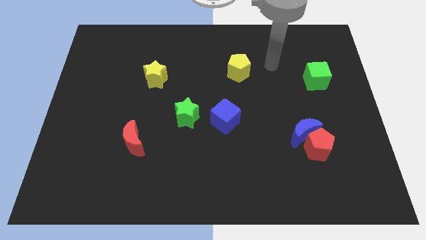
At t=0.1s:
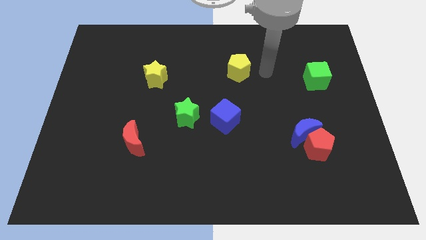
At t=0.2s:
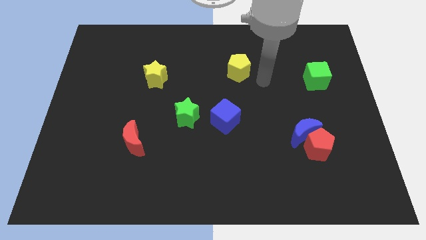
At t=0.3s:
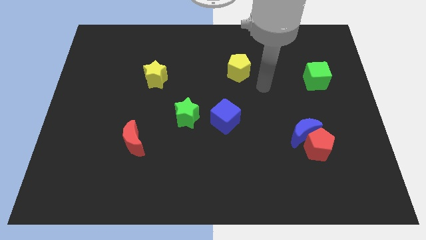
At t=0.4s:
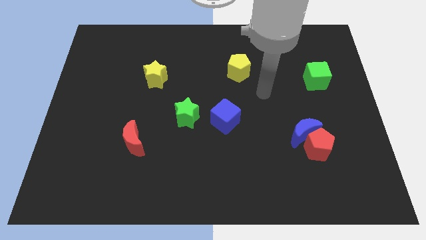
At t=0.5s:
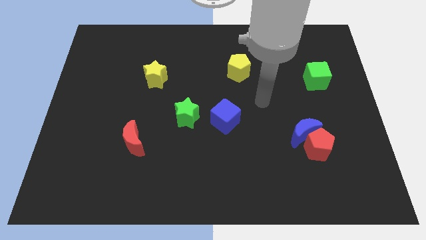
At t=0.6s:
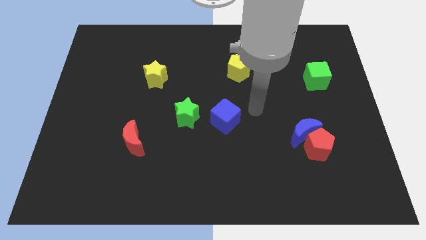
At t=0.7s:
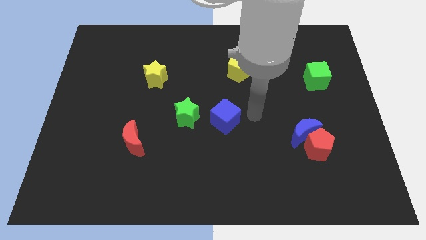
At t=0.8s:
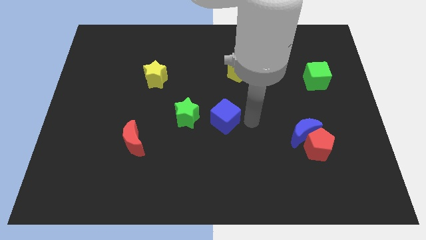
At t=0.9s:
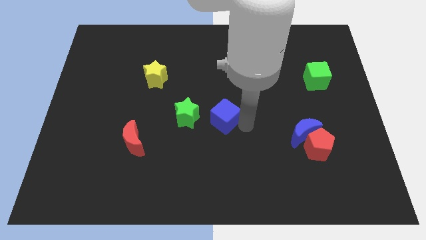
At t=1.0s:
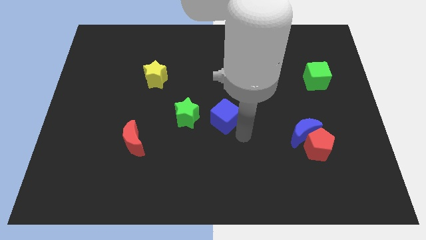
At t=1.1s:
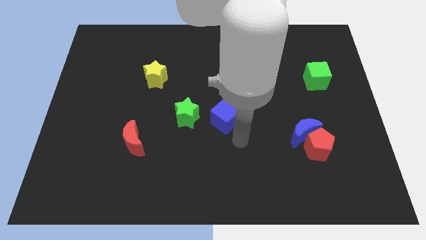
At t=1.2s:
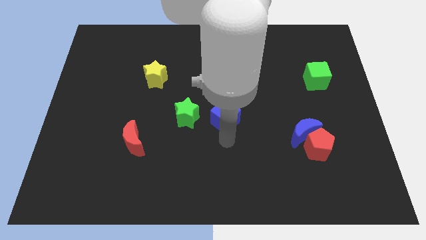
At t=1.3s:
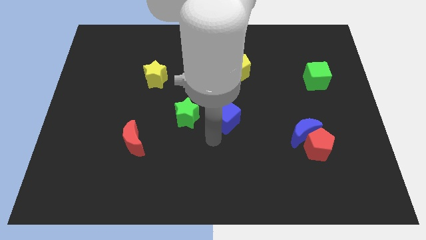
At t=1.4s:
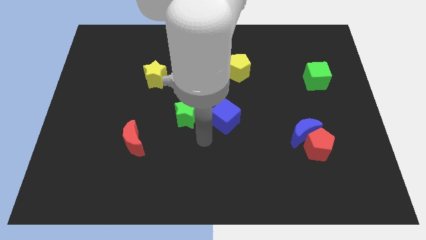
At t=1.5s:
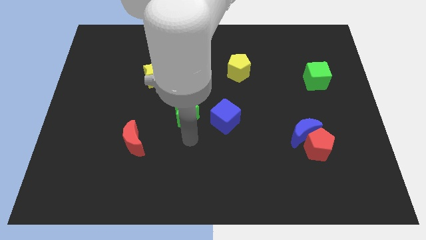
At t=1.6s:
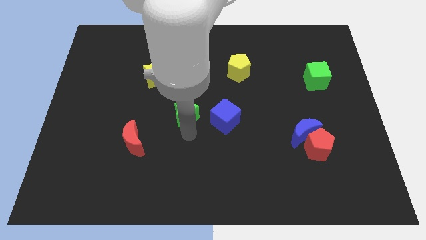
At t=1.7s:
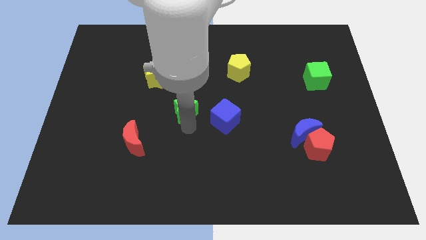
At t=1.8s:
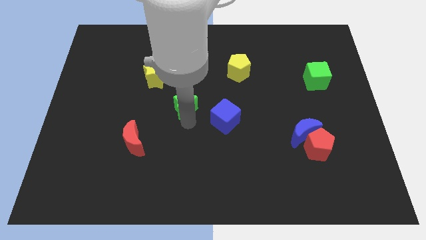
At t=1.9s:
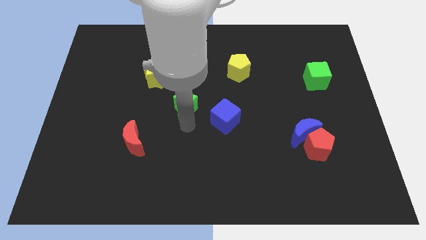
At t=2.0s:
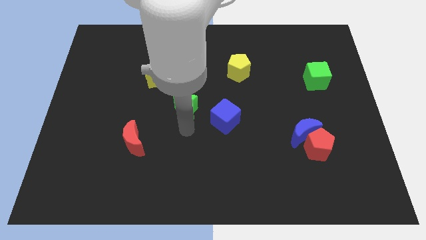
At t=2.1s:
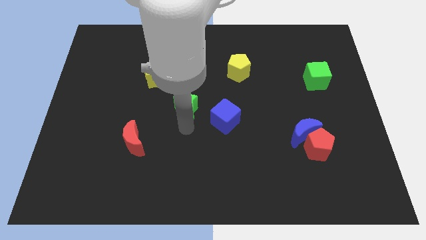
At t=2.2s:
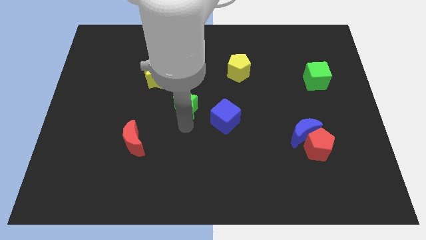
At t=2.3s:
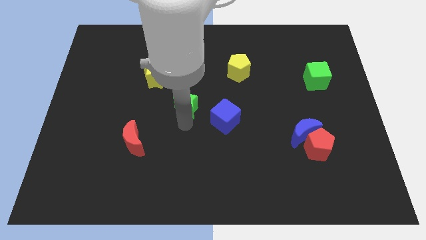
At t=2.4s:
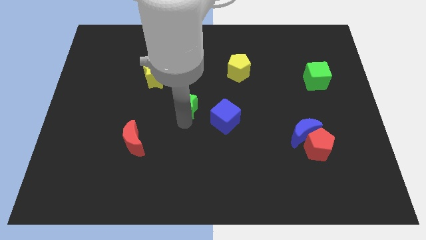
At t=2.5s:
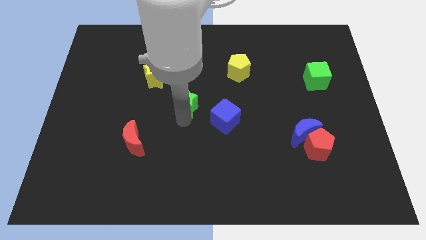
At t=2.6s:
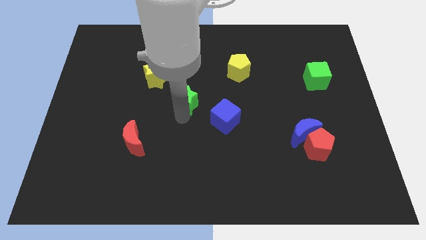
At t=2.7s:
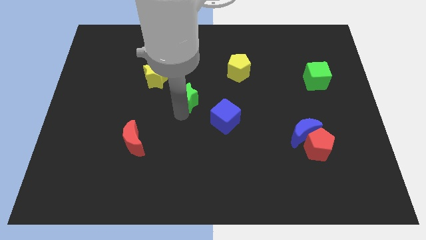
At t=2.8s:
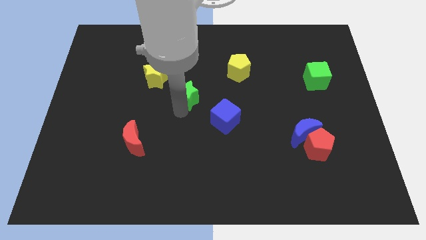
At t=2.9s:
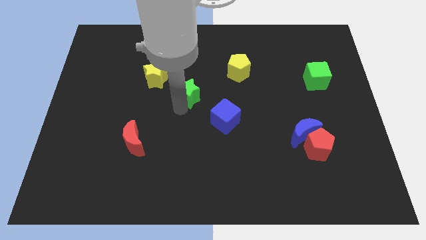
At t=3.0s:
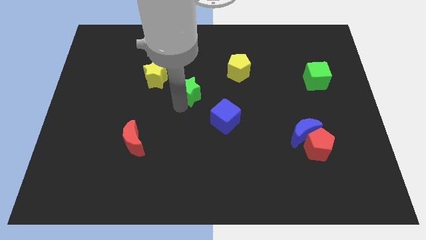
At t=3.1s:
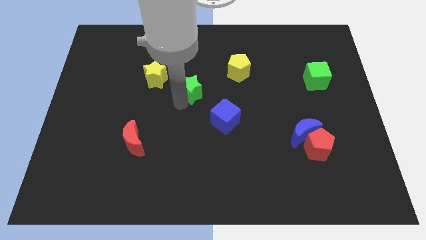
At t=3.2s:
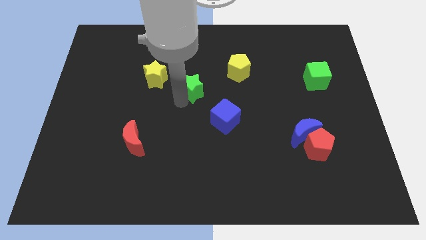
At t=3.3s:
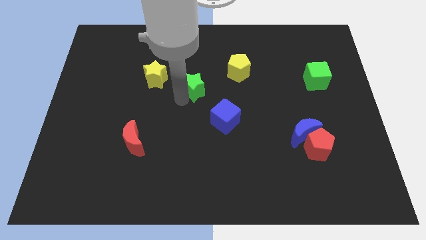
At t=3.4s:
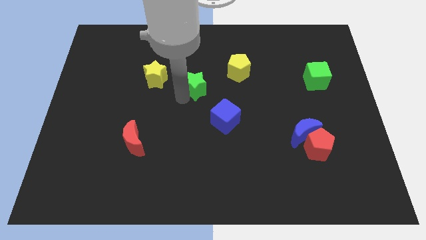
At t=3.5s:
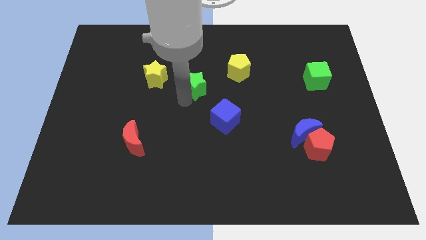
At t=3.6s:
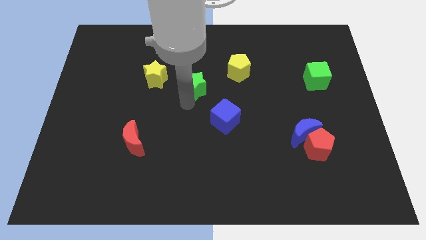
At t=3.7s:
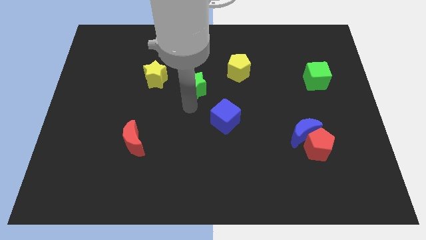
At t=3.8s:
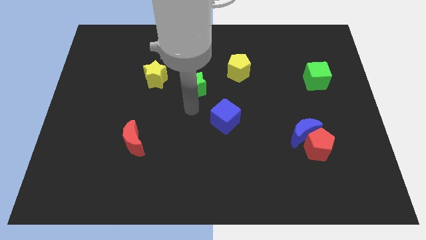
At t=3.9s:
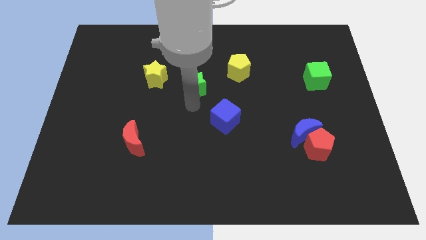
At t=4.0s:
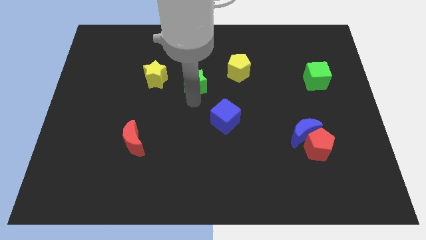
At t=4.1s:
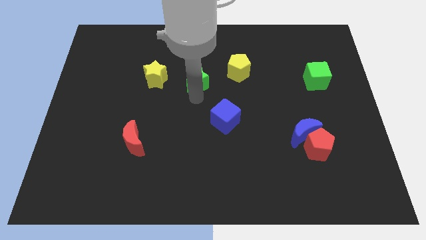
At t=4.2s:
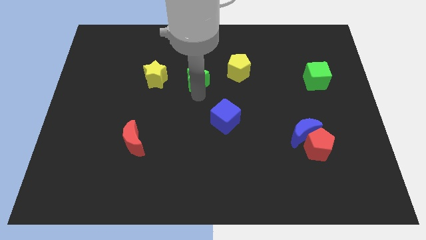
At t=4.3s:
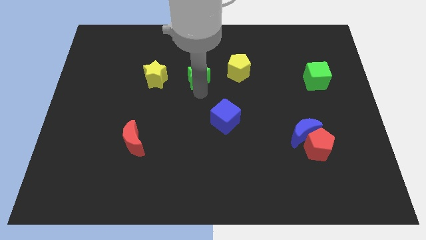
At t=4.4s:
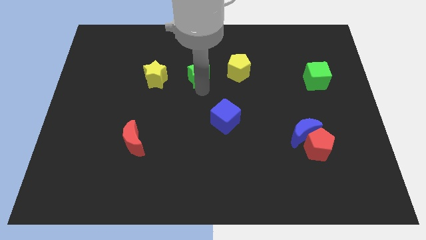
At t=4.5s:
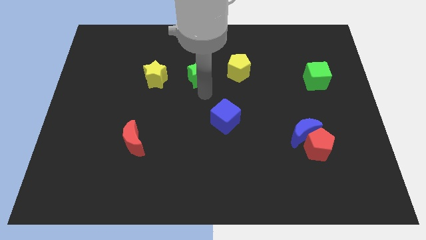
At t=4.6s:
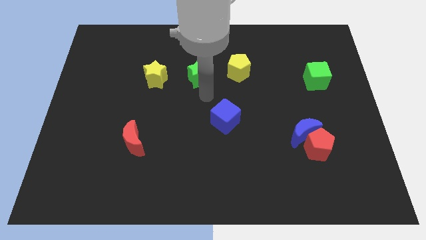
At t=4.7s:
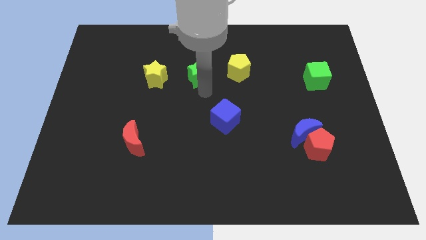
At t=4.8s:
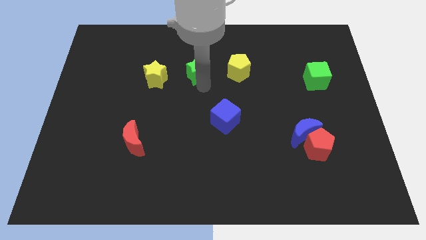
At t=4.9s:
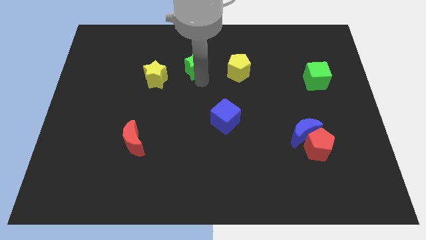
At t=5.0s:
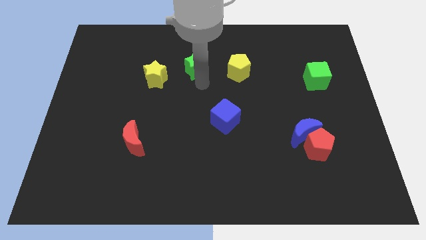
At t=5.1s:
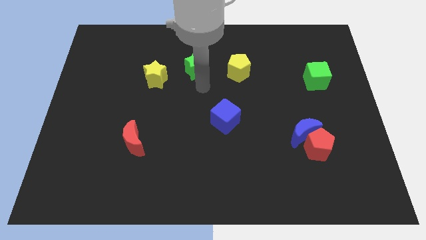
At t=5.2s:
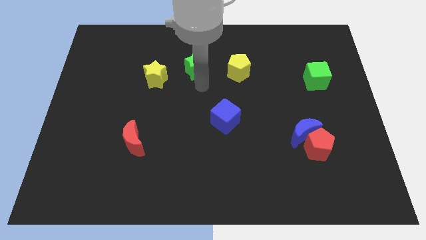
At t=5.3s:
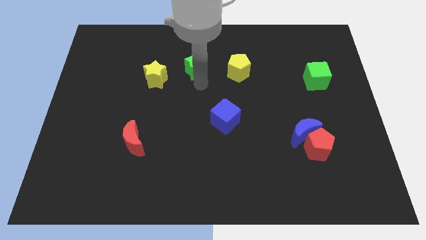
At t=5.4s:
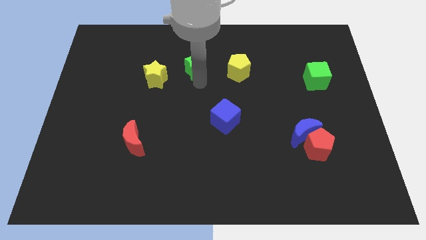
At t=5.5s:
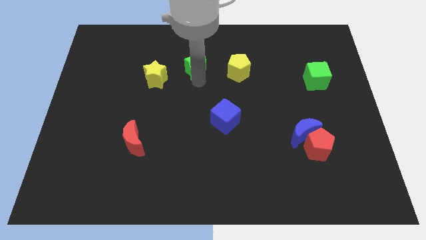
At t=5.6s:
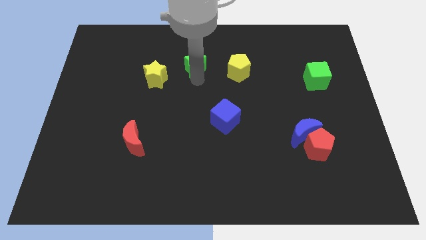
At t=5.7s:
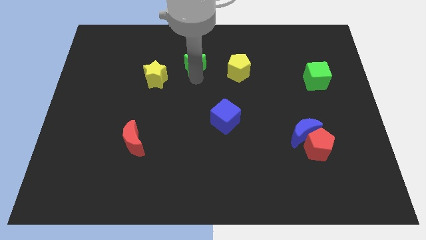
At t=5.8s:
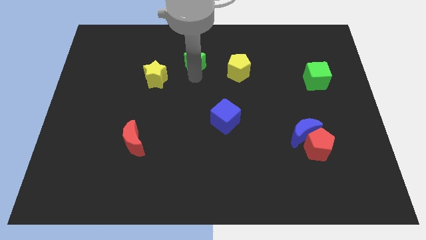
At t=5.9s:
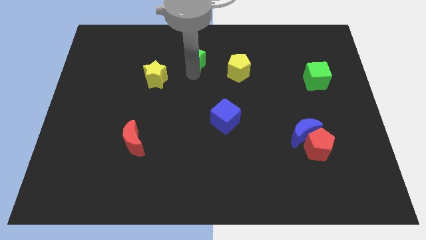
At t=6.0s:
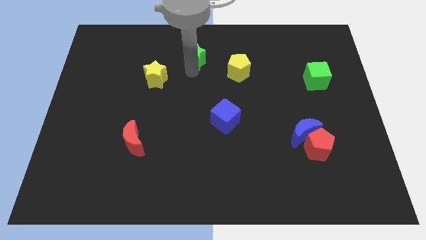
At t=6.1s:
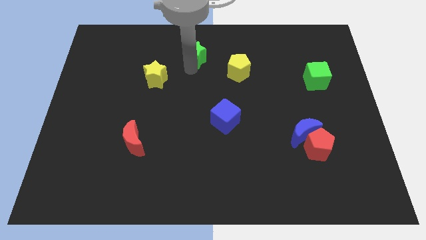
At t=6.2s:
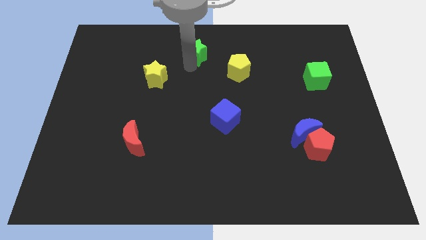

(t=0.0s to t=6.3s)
slide the green star to the top
